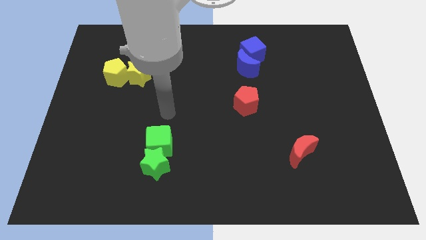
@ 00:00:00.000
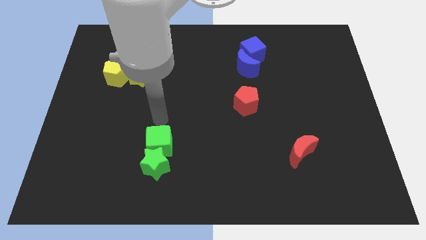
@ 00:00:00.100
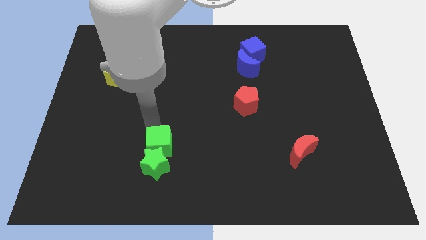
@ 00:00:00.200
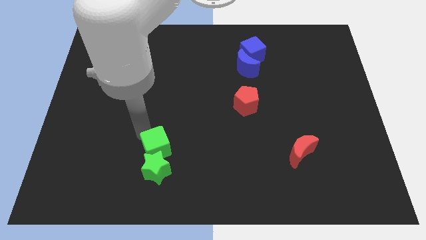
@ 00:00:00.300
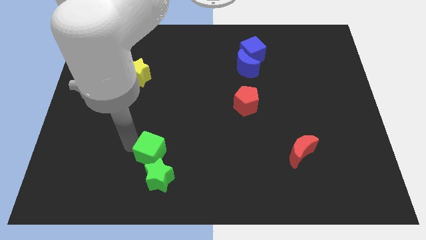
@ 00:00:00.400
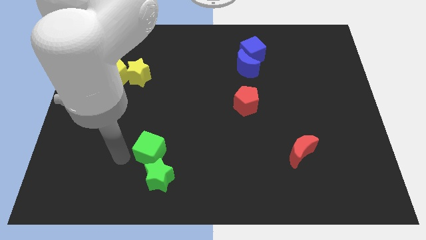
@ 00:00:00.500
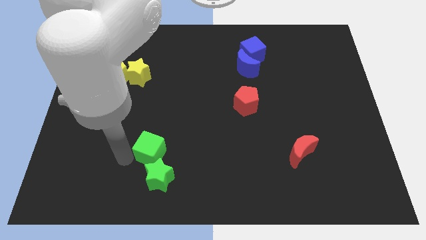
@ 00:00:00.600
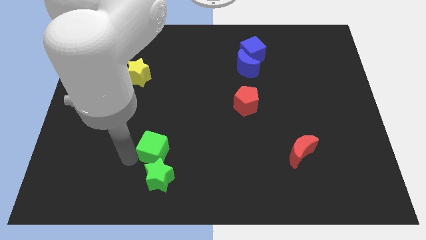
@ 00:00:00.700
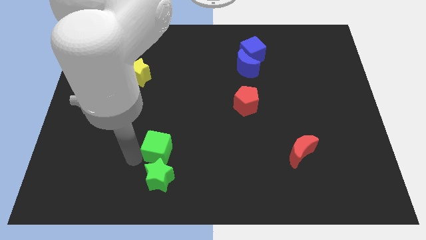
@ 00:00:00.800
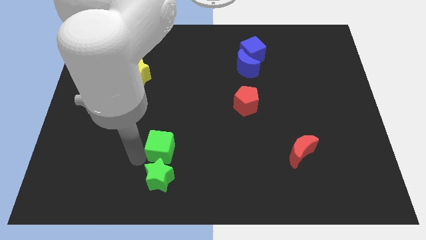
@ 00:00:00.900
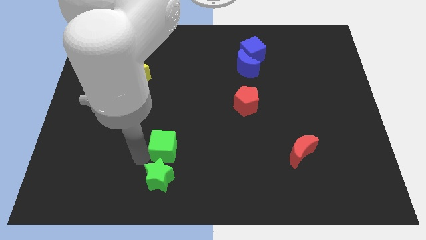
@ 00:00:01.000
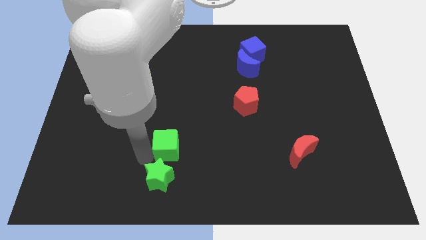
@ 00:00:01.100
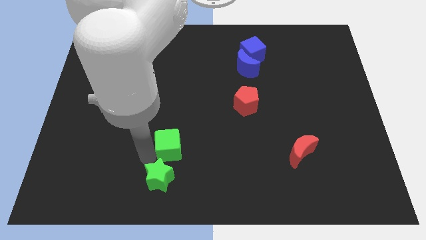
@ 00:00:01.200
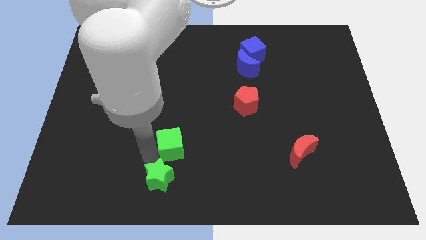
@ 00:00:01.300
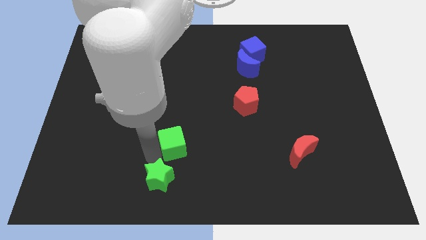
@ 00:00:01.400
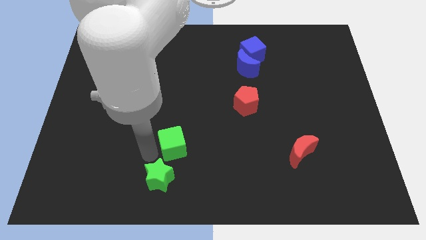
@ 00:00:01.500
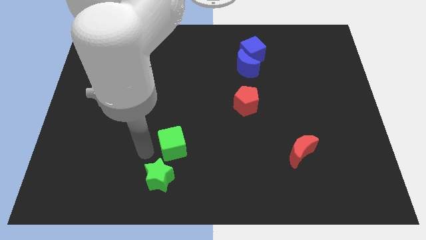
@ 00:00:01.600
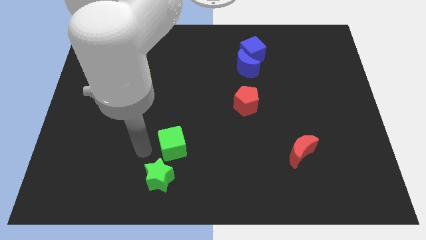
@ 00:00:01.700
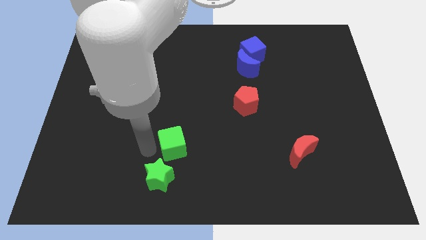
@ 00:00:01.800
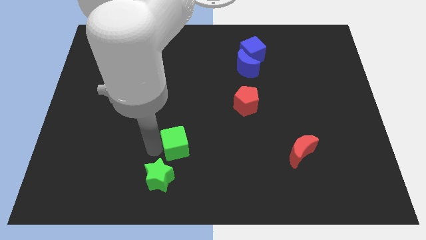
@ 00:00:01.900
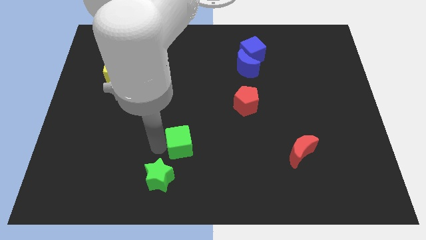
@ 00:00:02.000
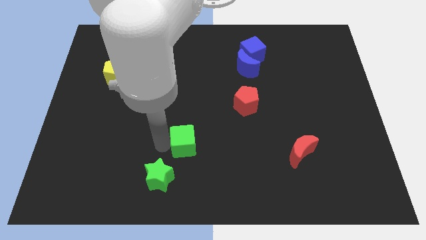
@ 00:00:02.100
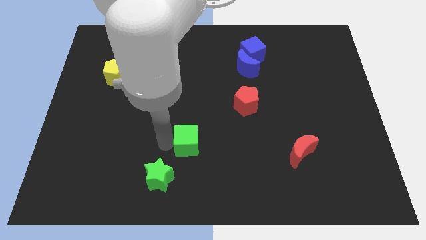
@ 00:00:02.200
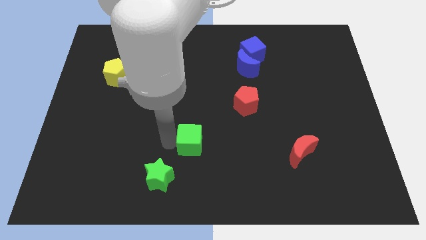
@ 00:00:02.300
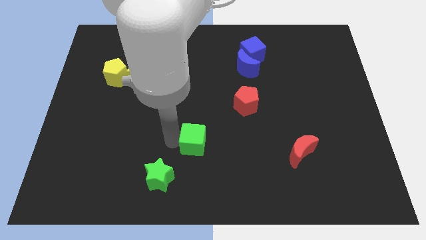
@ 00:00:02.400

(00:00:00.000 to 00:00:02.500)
push the green cube slightly right

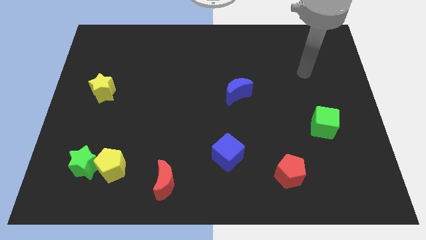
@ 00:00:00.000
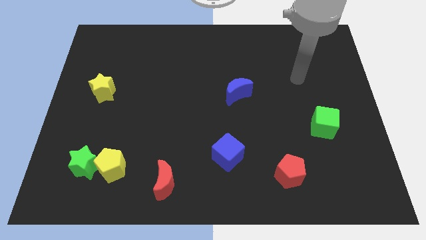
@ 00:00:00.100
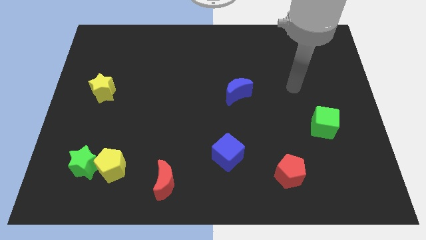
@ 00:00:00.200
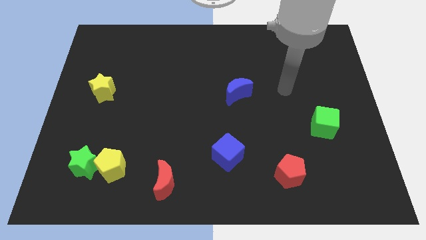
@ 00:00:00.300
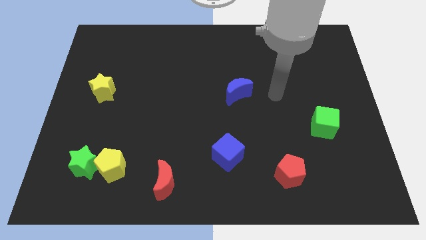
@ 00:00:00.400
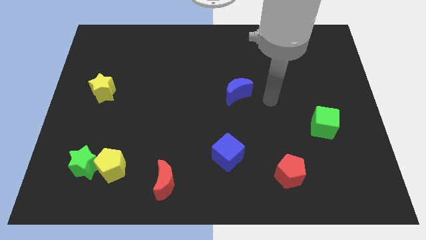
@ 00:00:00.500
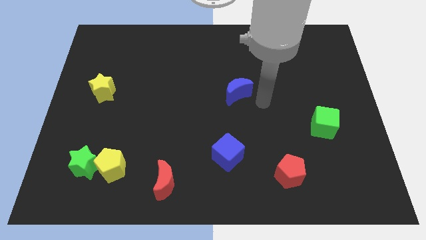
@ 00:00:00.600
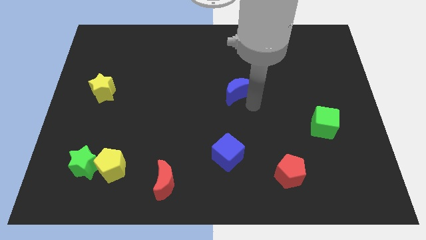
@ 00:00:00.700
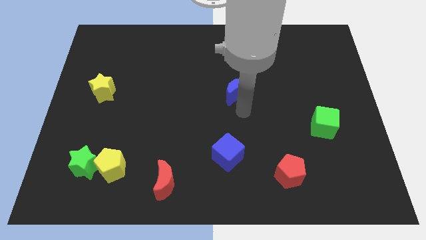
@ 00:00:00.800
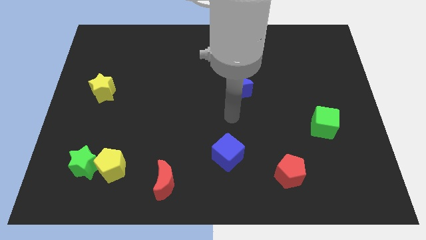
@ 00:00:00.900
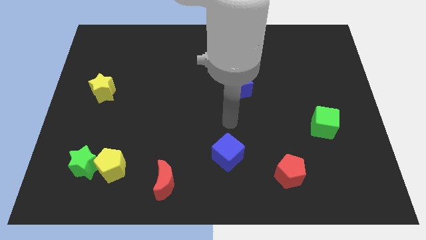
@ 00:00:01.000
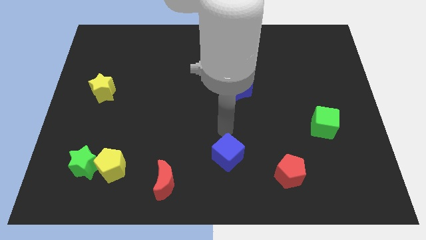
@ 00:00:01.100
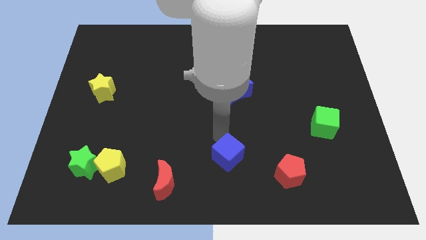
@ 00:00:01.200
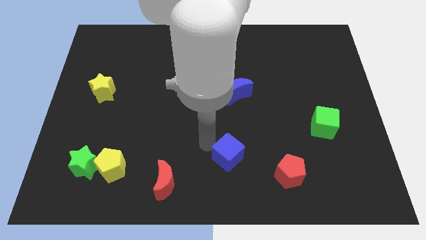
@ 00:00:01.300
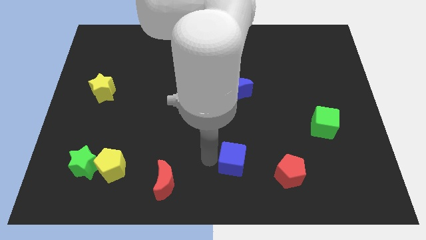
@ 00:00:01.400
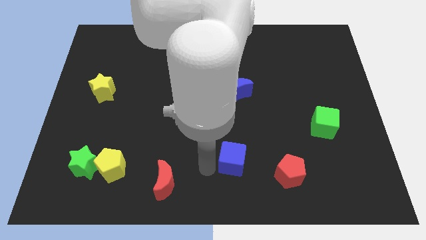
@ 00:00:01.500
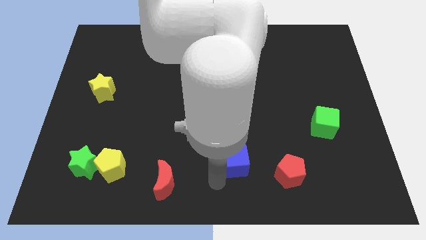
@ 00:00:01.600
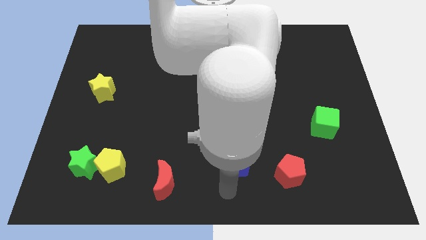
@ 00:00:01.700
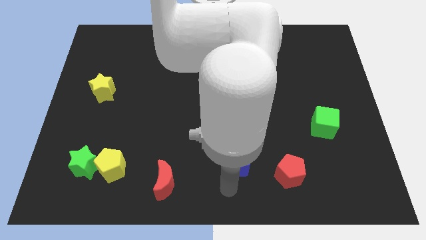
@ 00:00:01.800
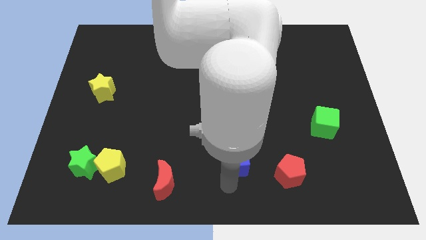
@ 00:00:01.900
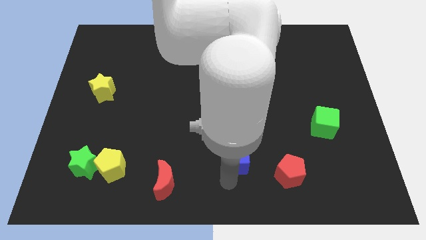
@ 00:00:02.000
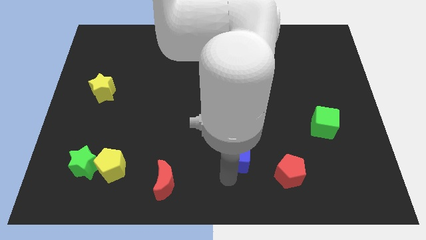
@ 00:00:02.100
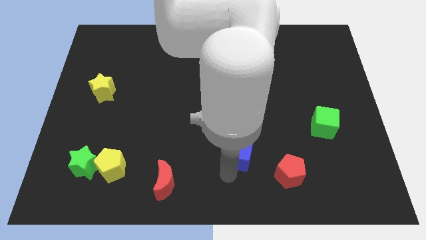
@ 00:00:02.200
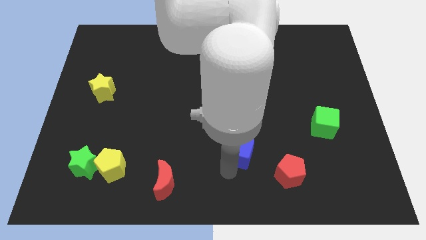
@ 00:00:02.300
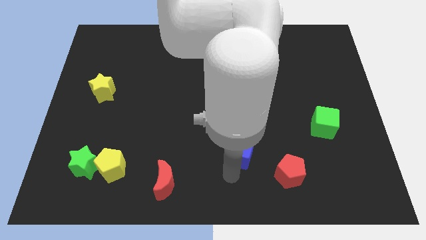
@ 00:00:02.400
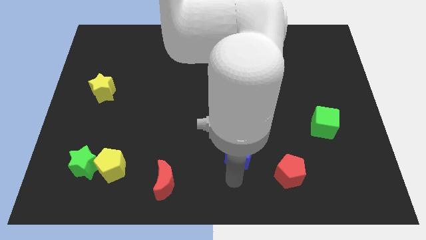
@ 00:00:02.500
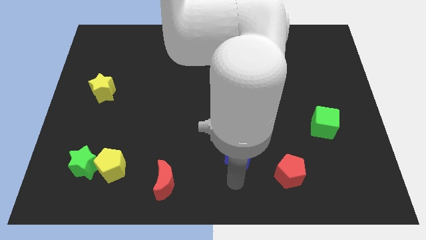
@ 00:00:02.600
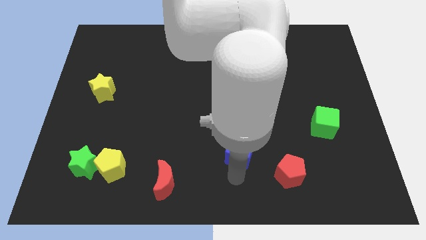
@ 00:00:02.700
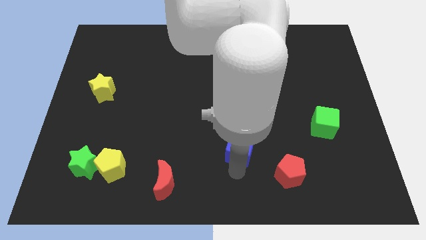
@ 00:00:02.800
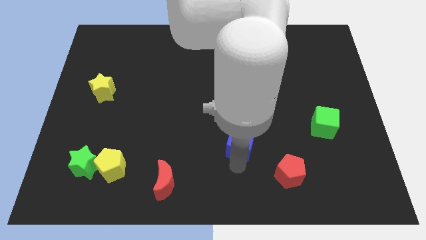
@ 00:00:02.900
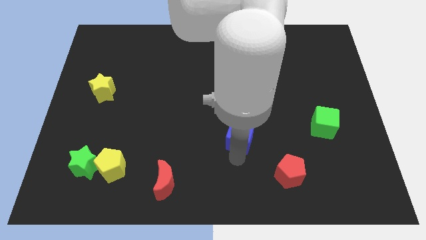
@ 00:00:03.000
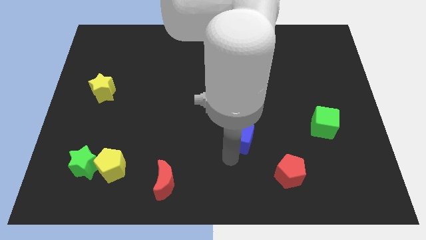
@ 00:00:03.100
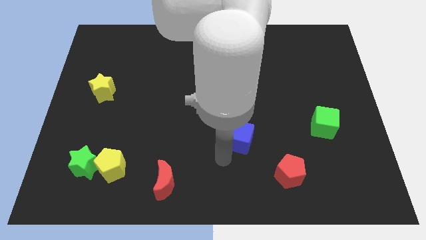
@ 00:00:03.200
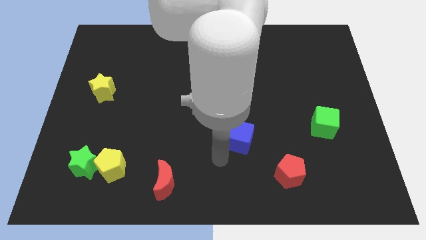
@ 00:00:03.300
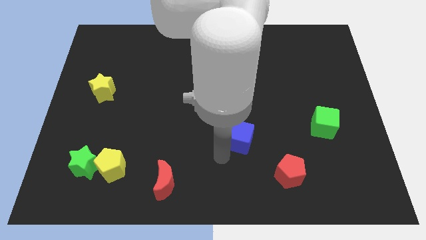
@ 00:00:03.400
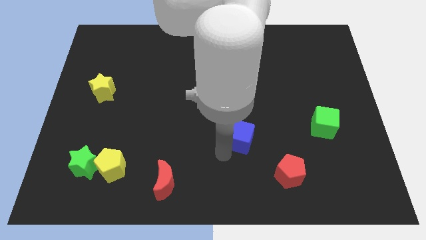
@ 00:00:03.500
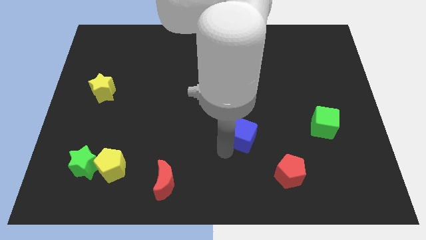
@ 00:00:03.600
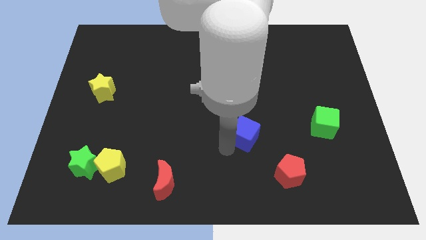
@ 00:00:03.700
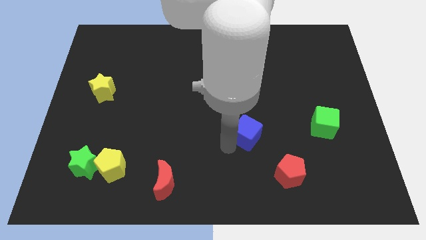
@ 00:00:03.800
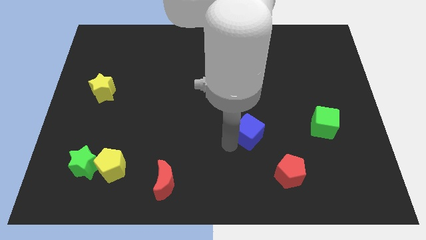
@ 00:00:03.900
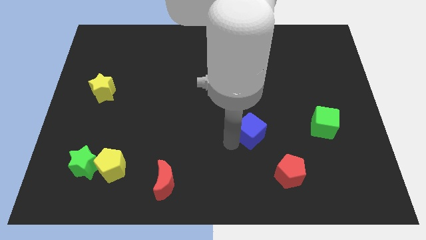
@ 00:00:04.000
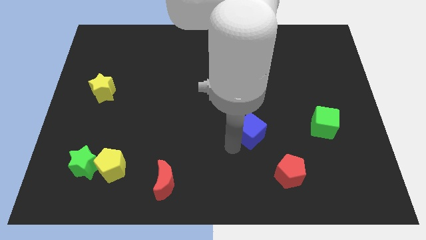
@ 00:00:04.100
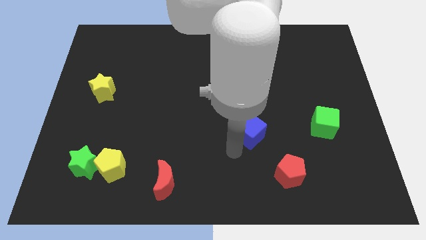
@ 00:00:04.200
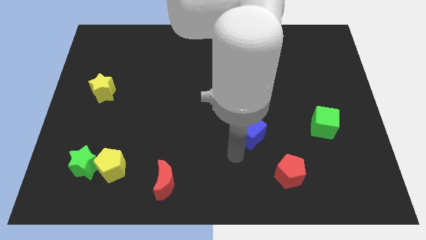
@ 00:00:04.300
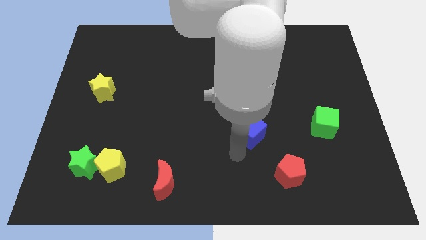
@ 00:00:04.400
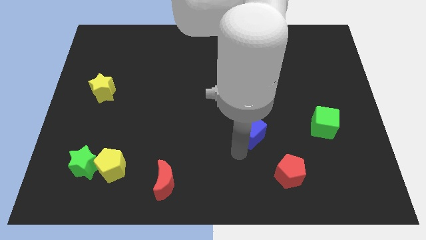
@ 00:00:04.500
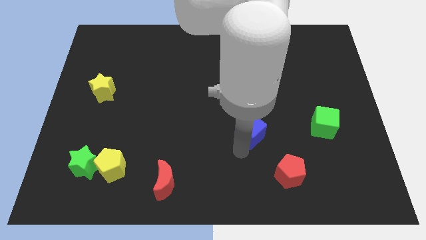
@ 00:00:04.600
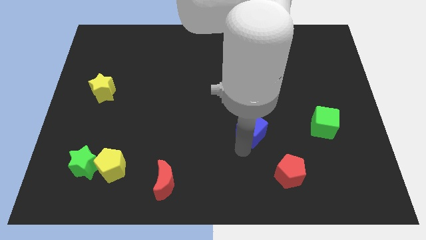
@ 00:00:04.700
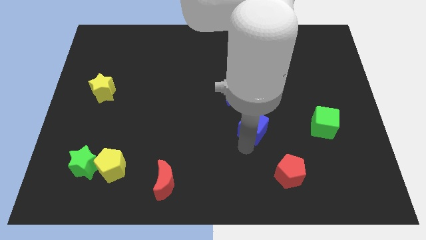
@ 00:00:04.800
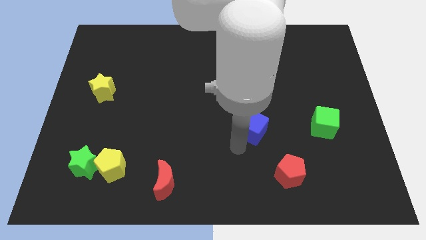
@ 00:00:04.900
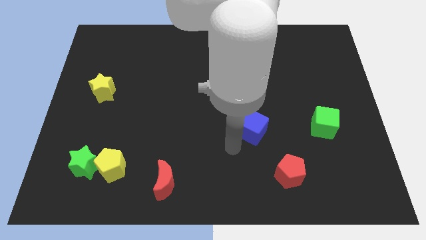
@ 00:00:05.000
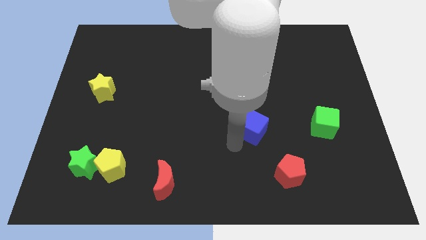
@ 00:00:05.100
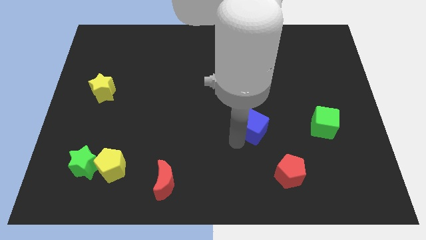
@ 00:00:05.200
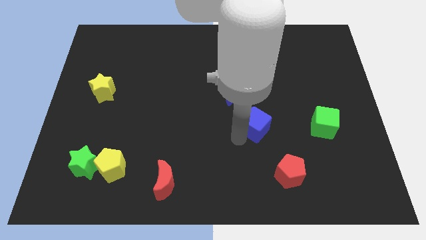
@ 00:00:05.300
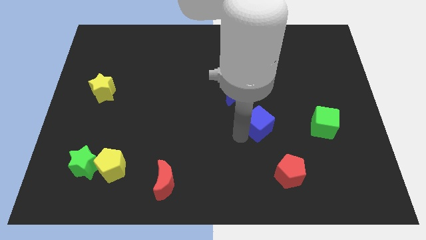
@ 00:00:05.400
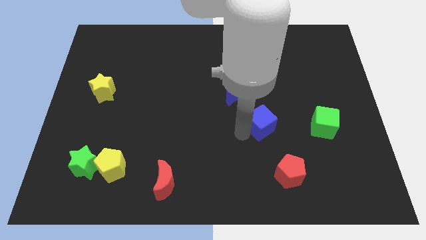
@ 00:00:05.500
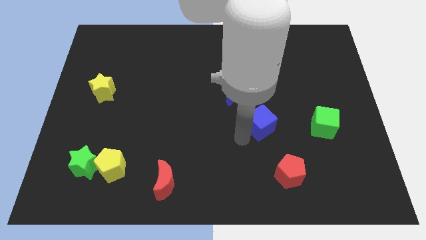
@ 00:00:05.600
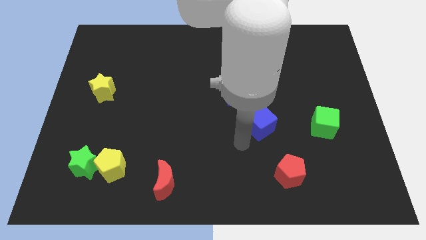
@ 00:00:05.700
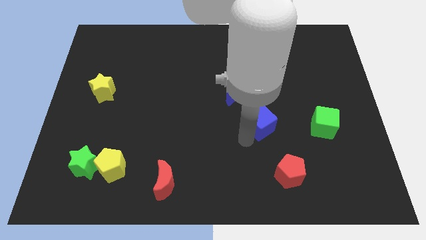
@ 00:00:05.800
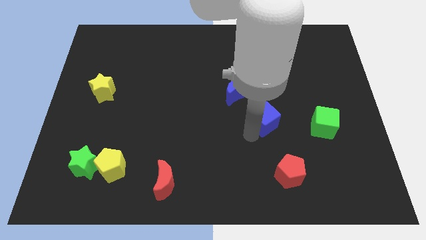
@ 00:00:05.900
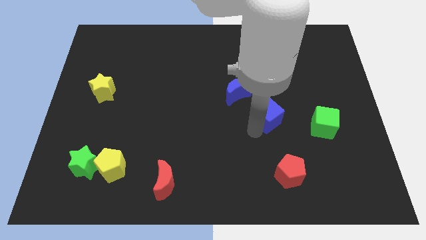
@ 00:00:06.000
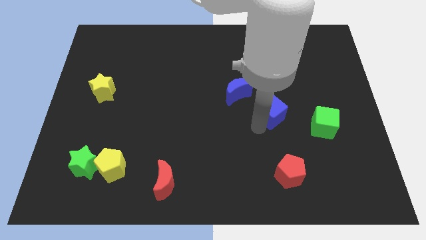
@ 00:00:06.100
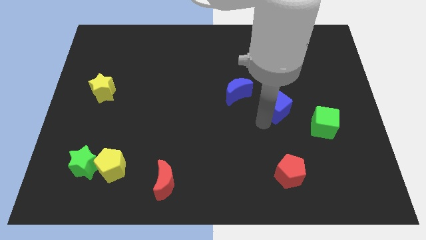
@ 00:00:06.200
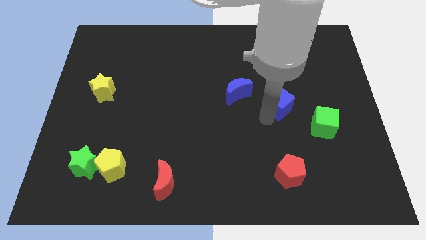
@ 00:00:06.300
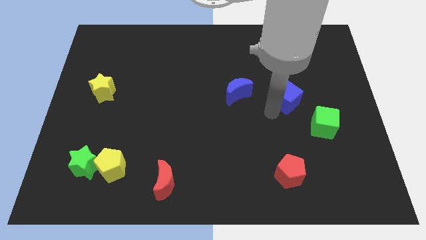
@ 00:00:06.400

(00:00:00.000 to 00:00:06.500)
slide the blue cube up and right diagonally
